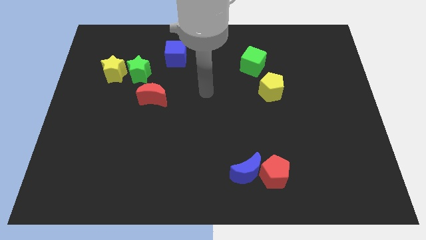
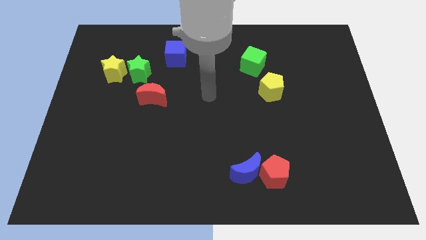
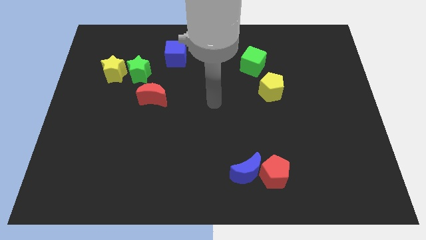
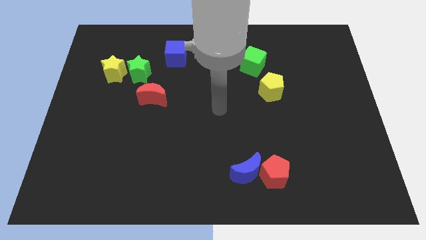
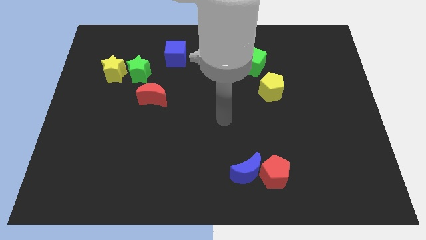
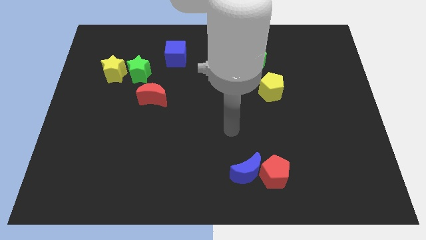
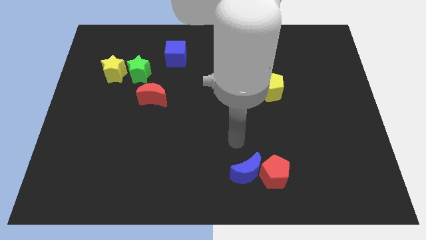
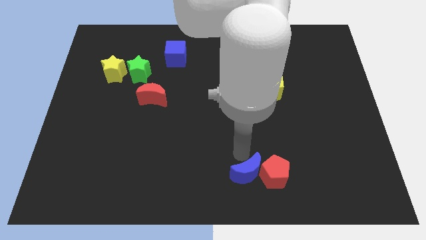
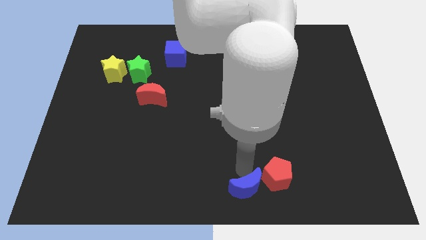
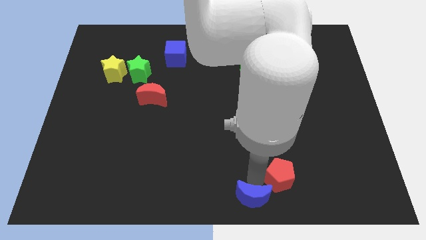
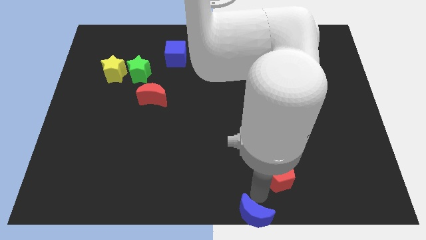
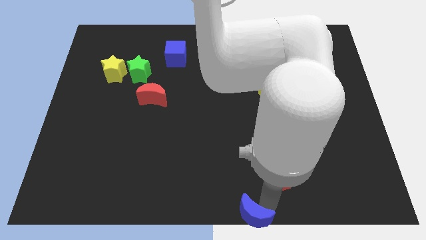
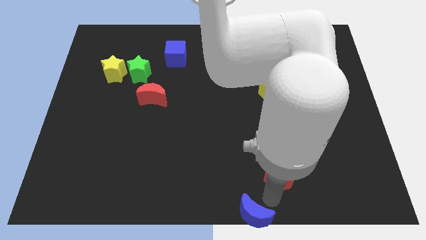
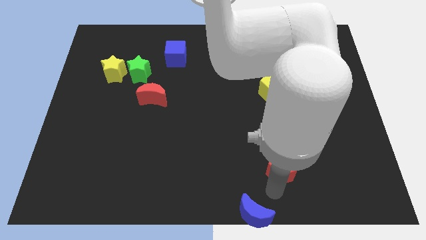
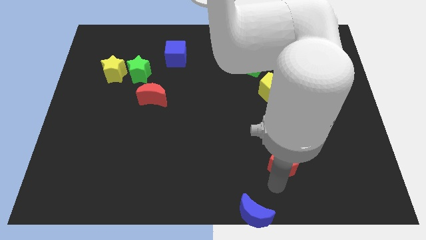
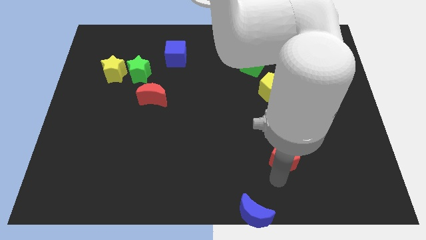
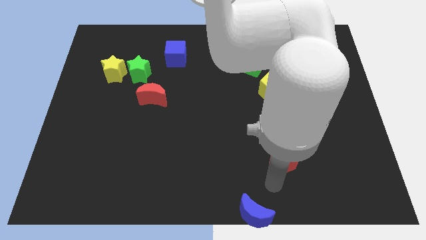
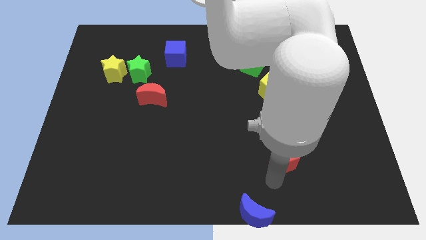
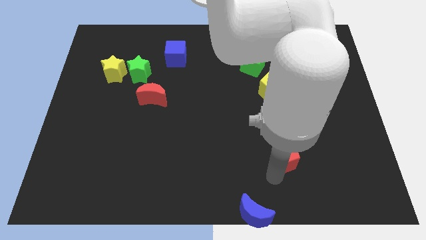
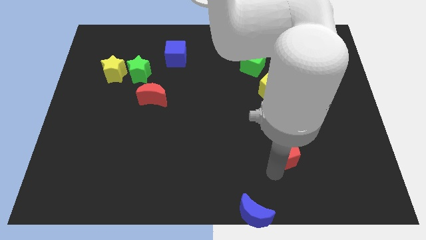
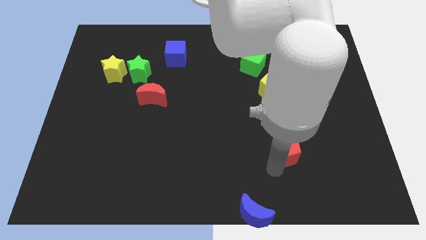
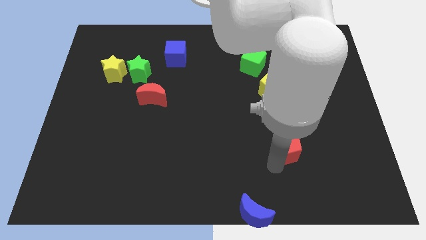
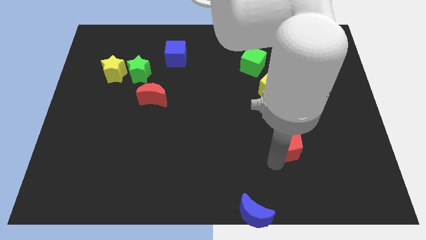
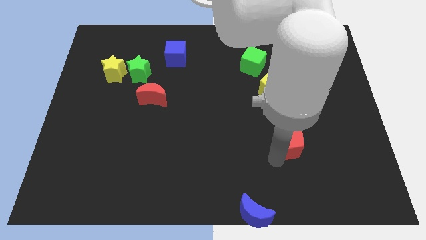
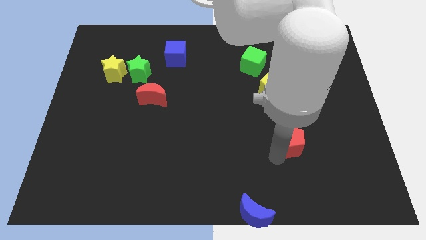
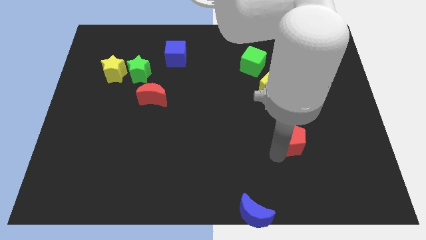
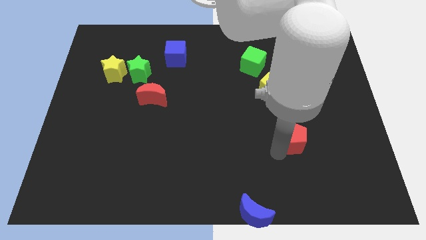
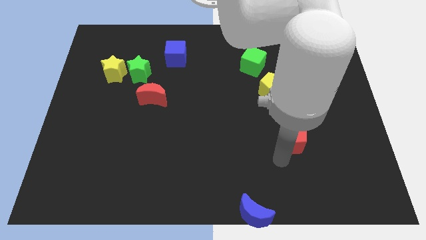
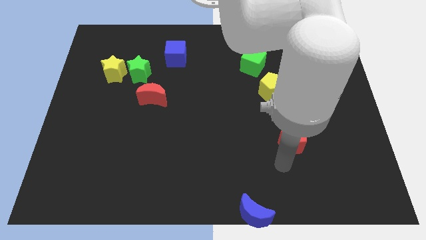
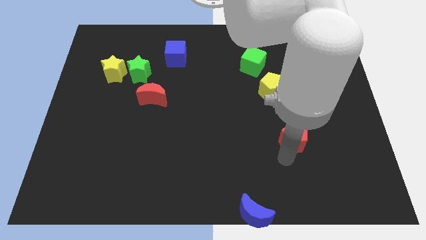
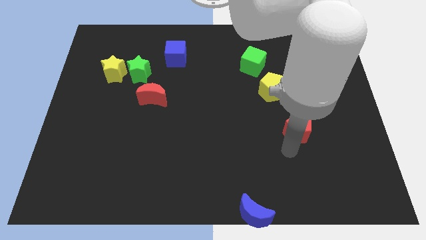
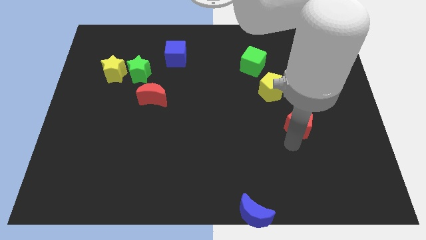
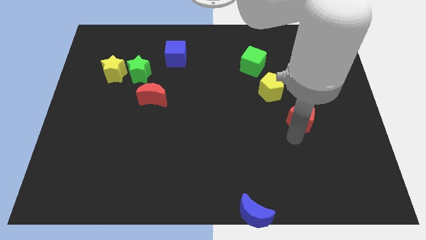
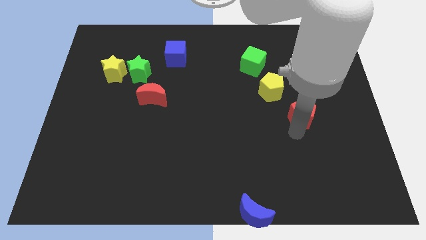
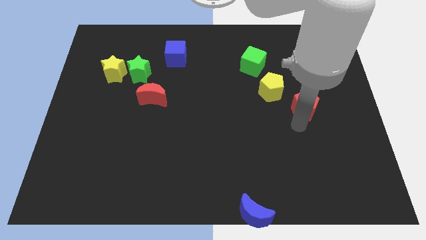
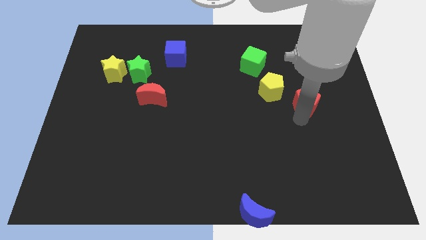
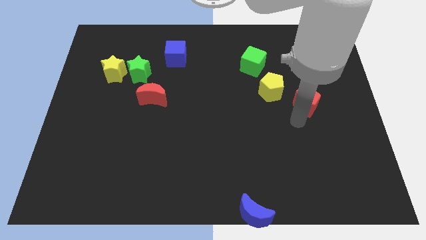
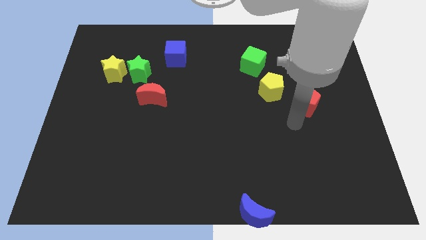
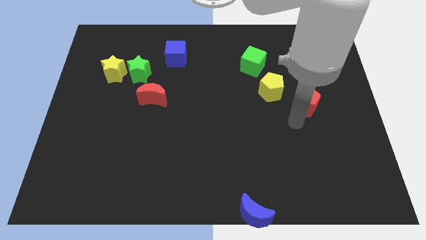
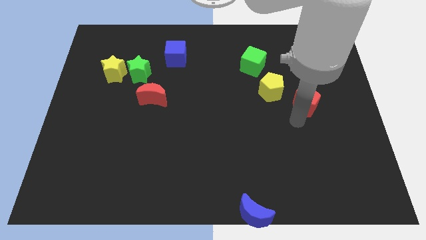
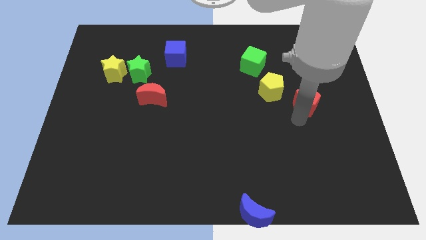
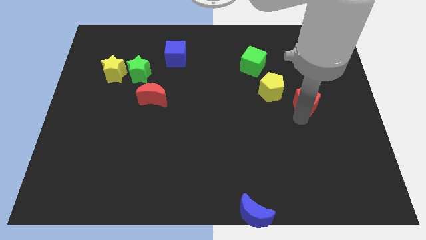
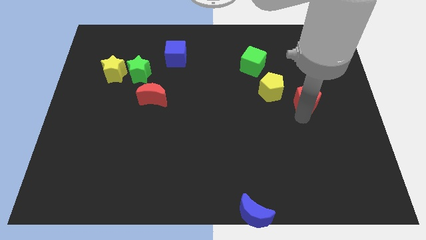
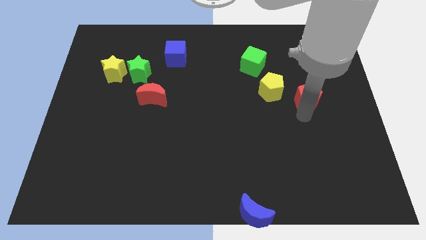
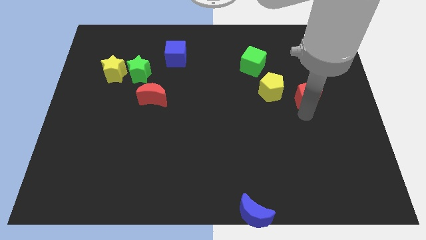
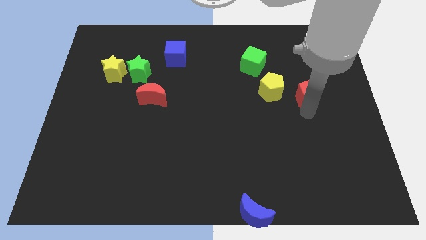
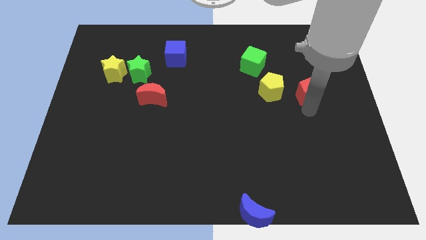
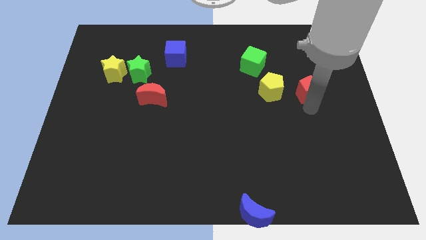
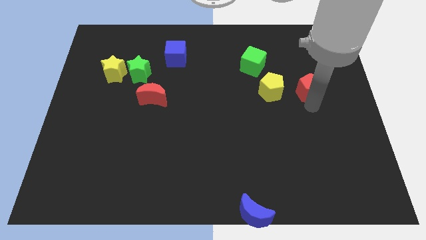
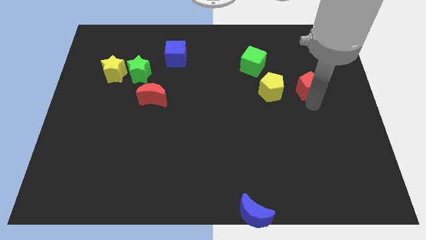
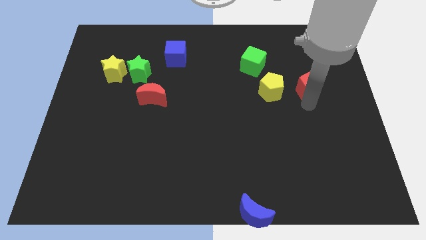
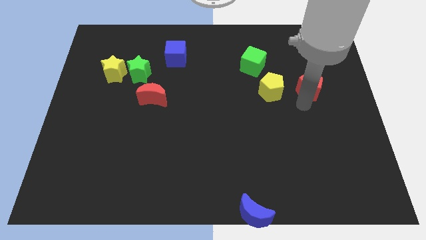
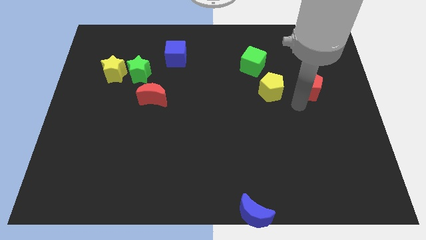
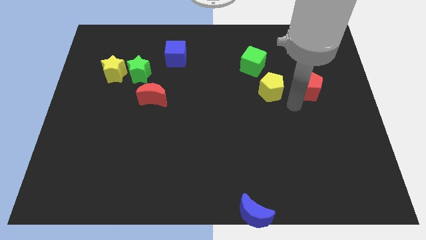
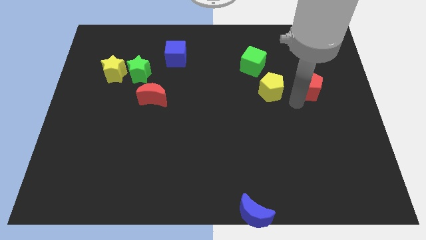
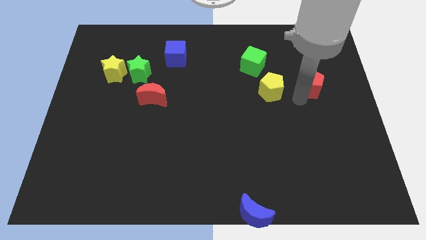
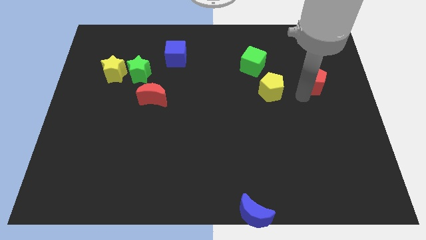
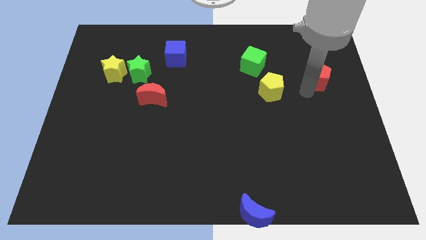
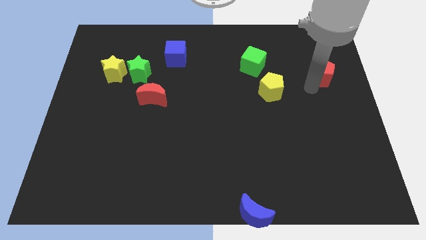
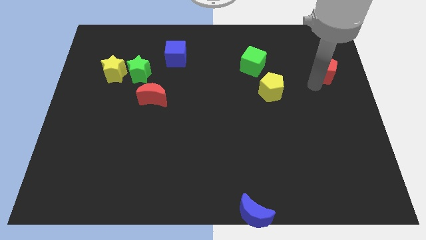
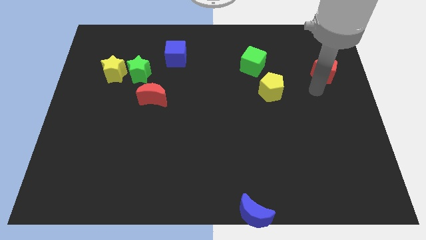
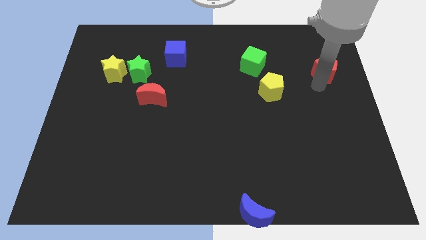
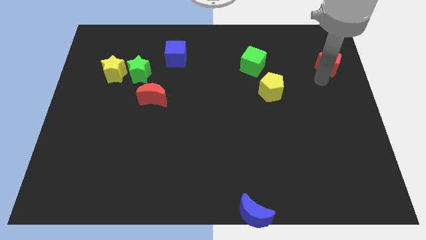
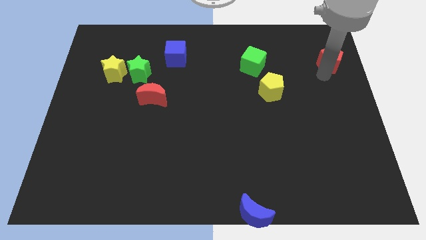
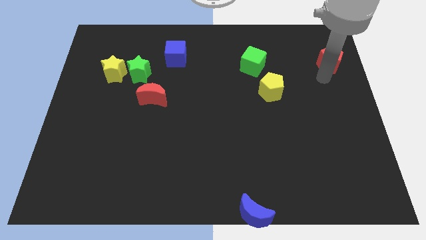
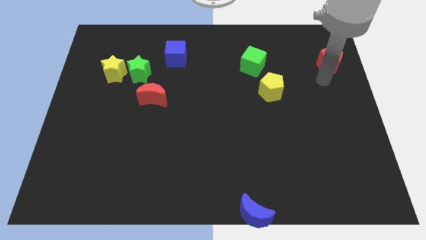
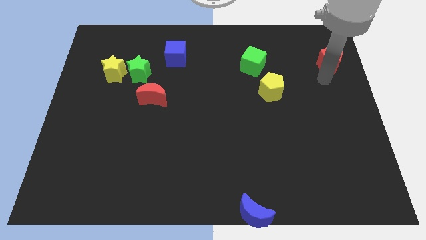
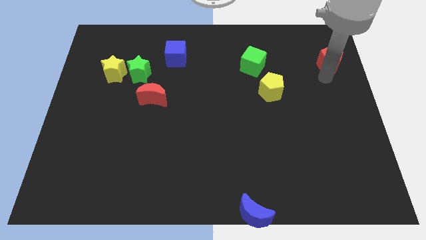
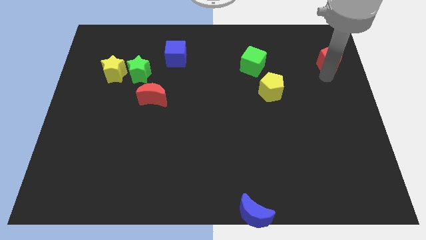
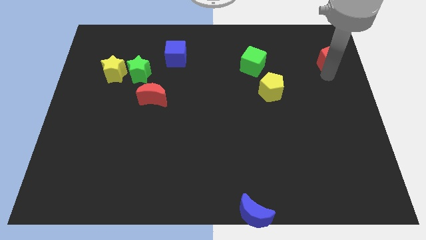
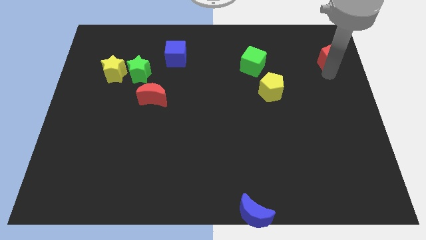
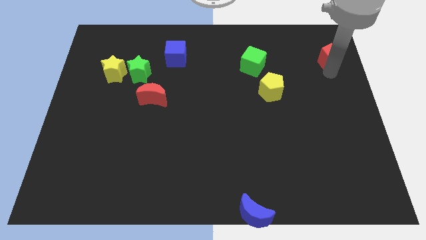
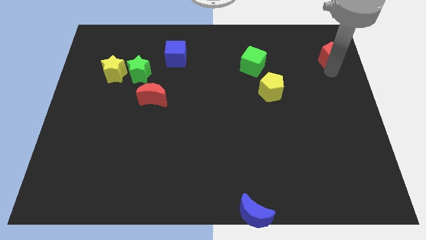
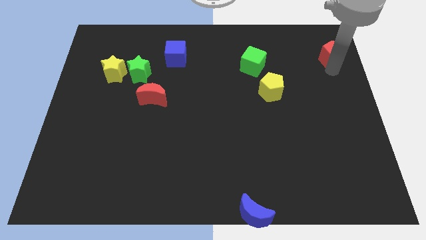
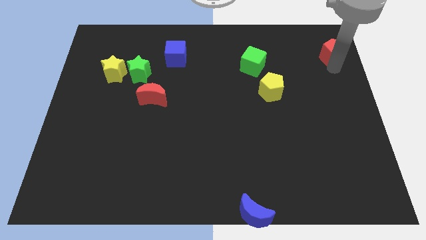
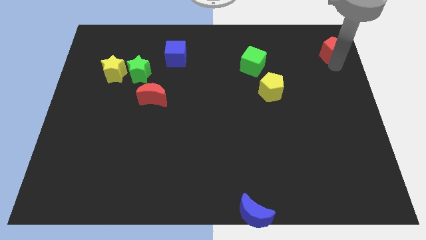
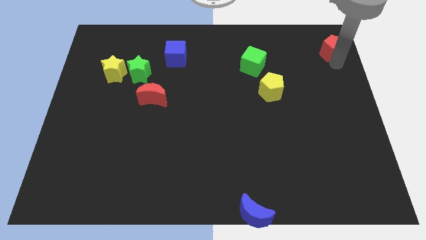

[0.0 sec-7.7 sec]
slide the red pentagon to the upper right corner
